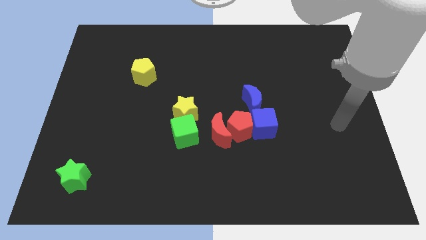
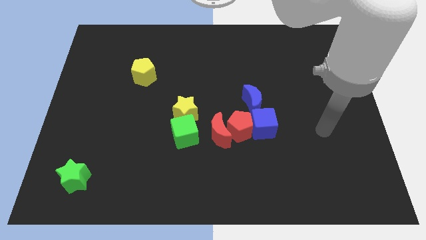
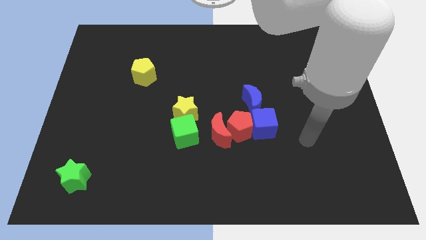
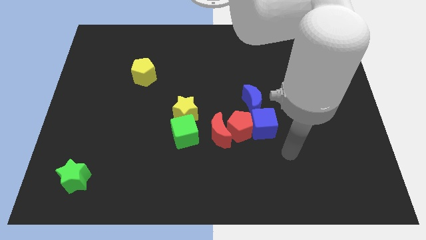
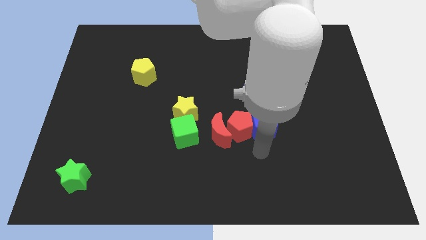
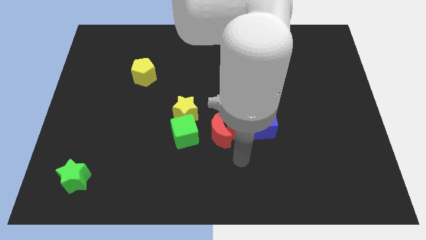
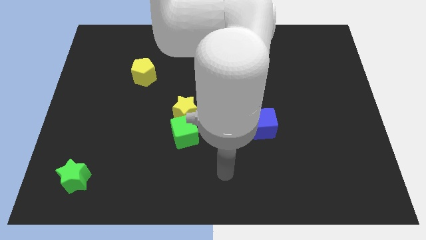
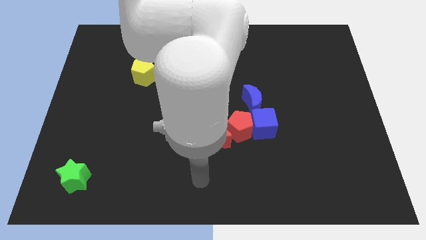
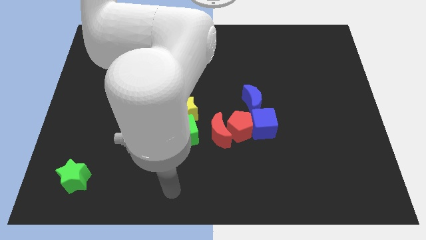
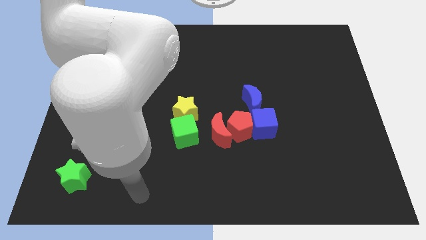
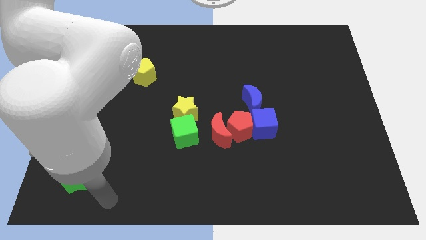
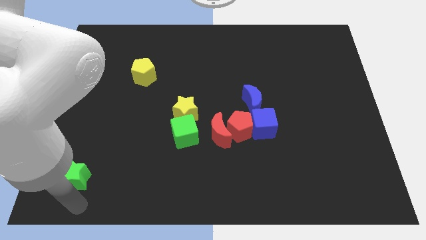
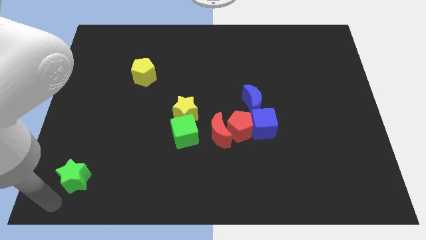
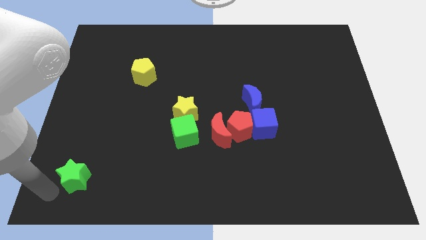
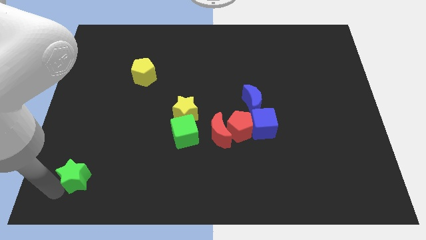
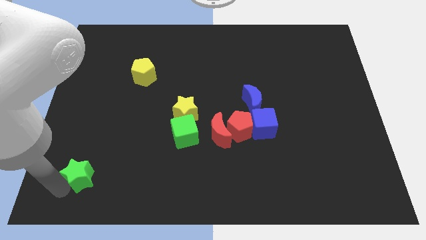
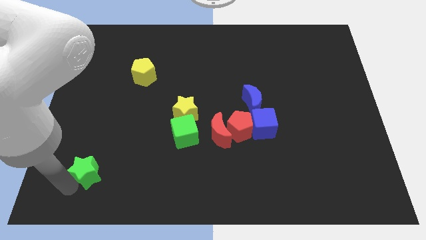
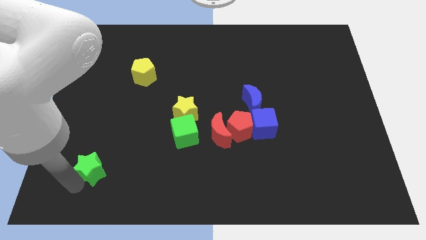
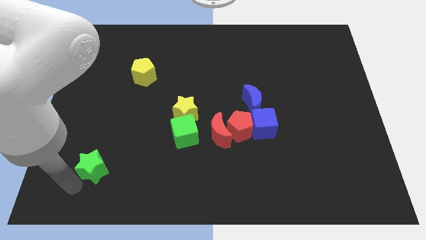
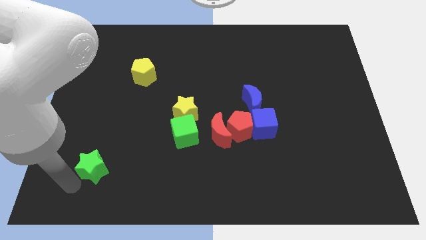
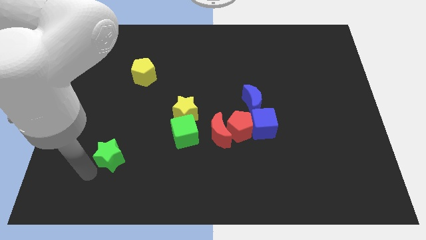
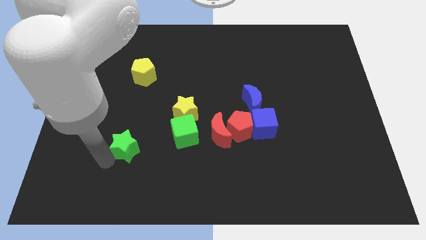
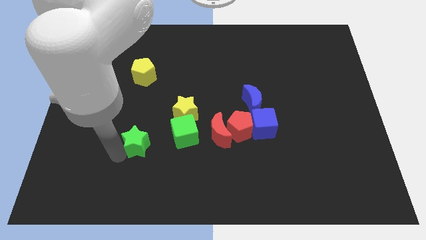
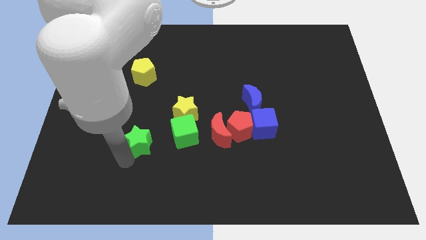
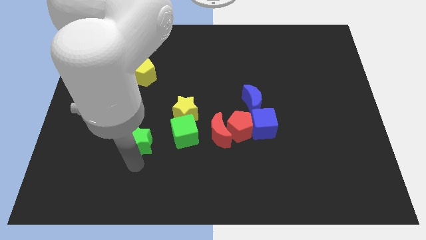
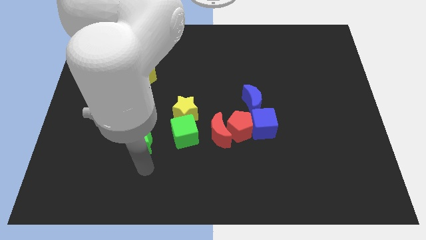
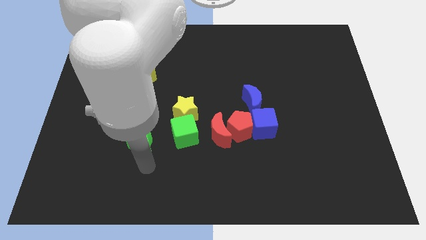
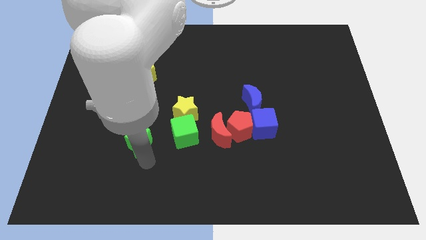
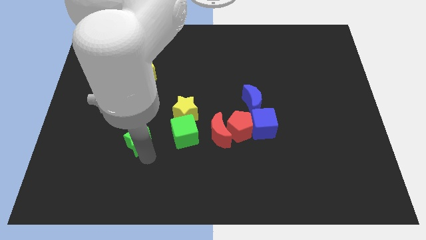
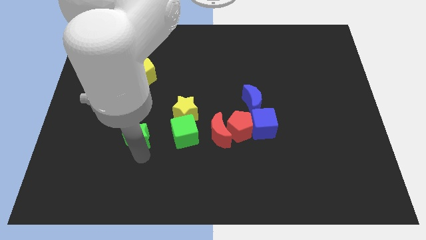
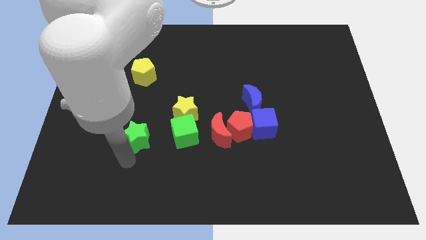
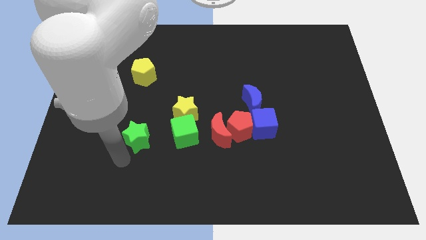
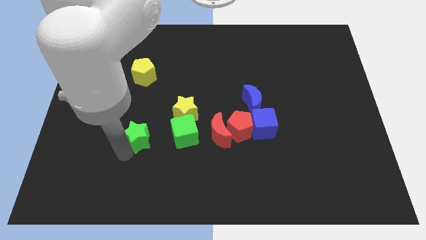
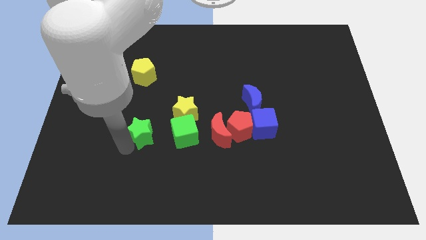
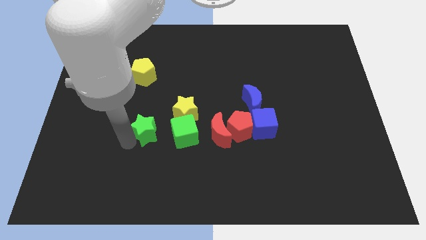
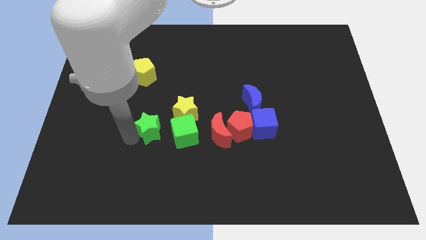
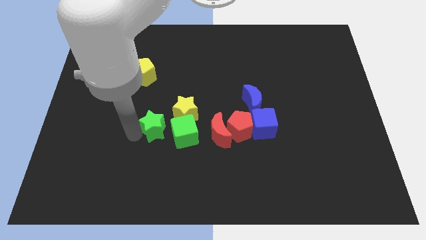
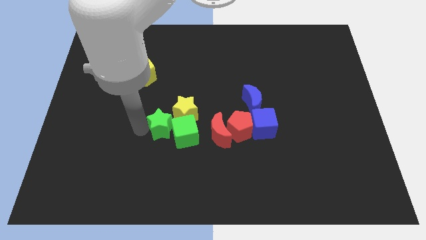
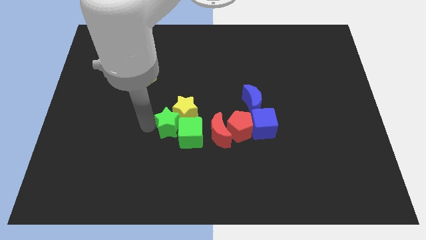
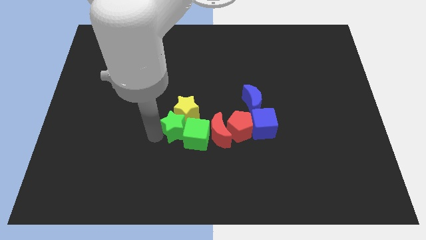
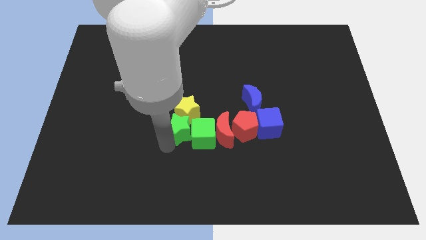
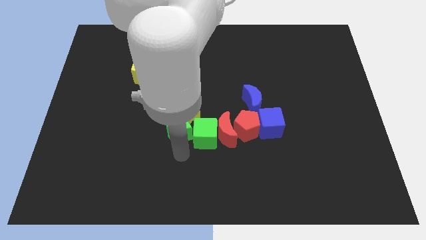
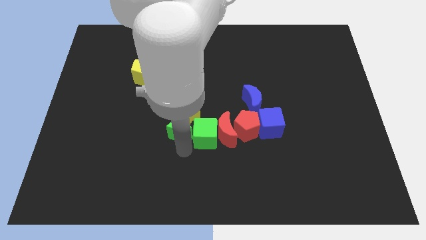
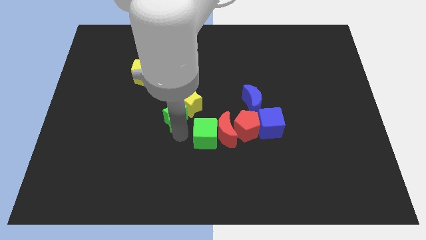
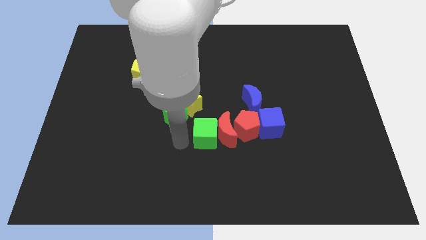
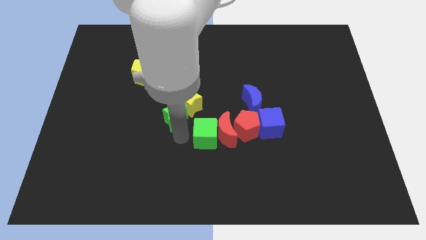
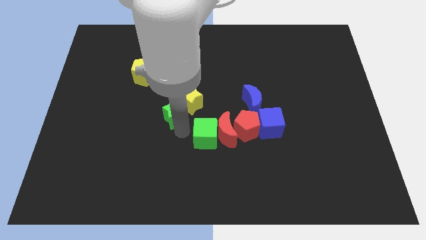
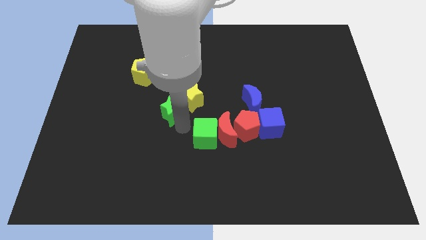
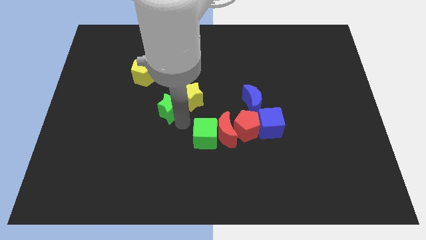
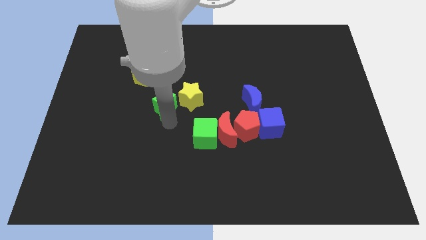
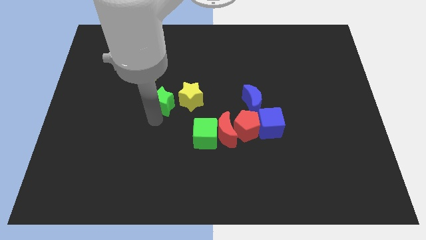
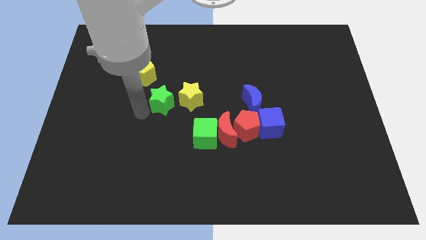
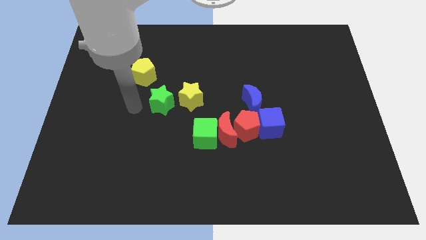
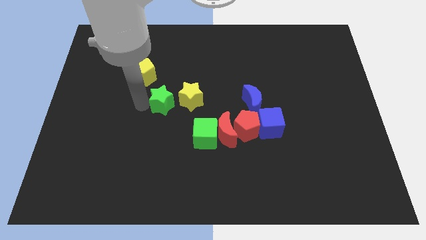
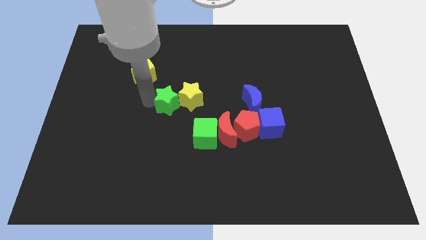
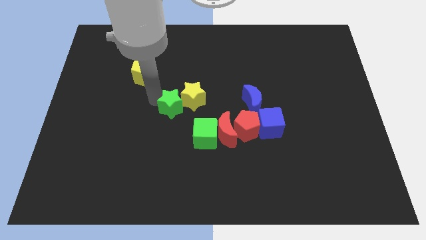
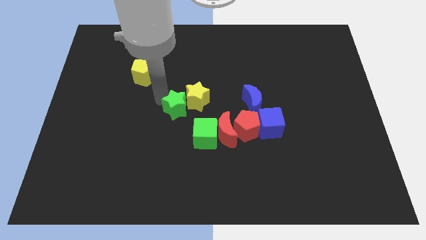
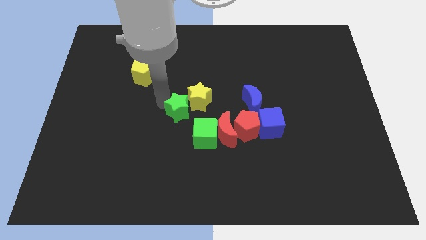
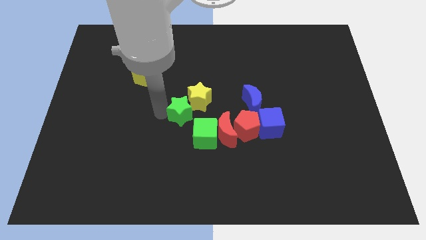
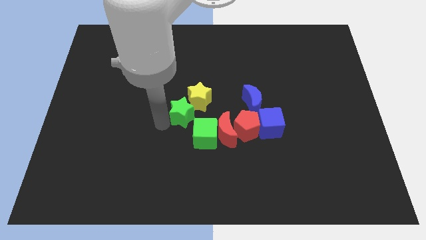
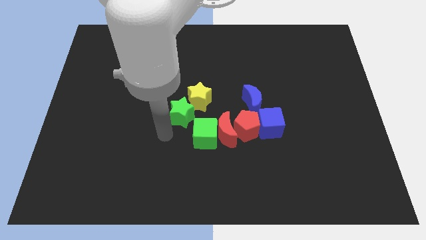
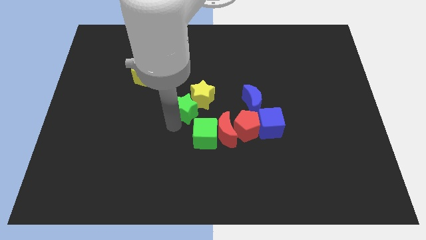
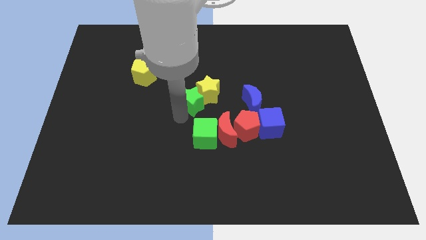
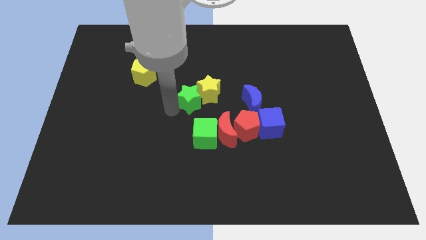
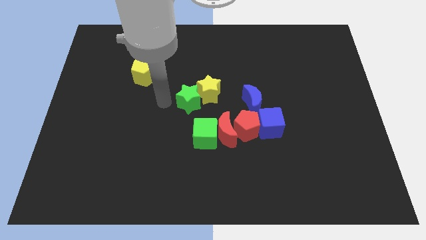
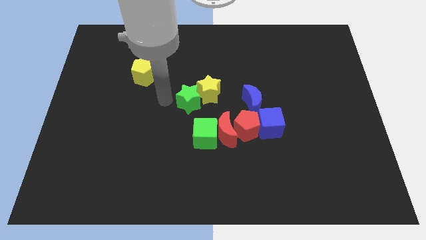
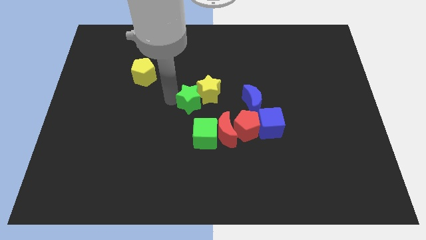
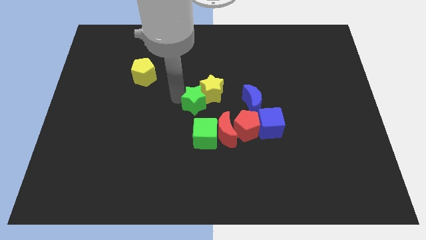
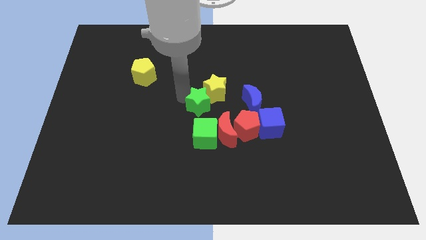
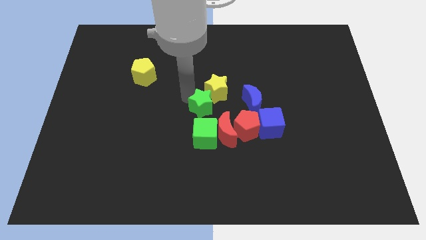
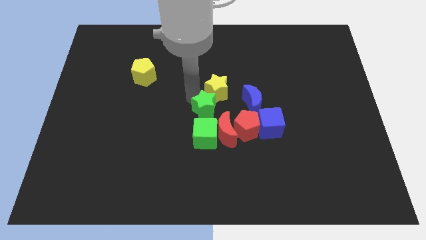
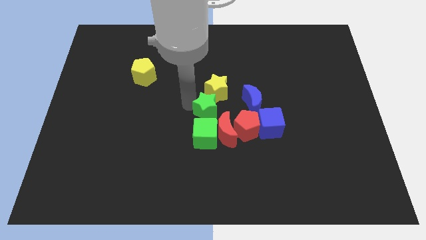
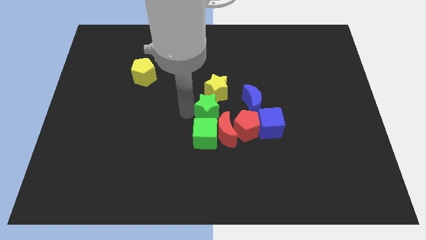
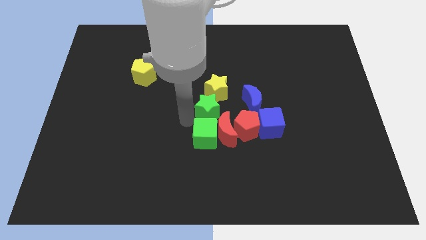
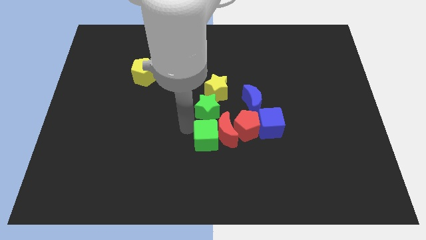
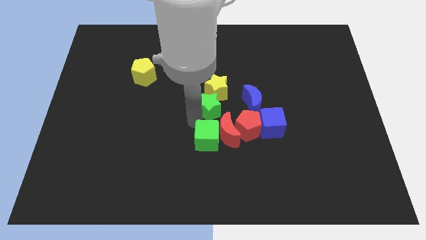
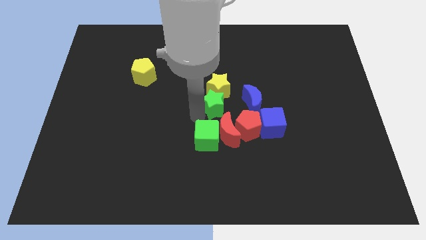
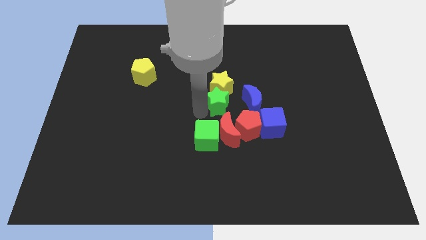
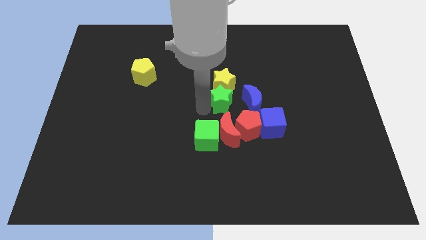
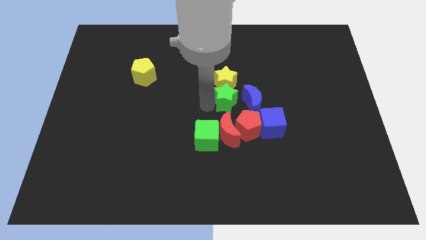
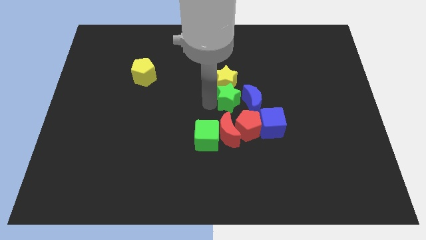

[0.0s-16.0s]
slide the green star to the blue moon
